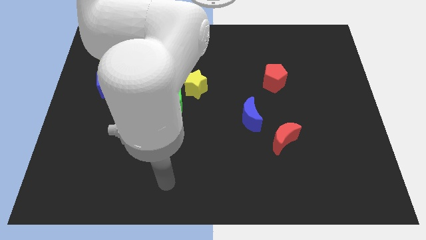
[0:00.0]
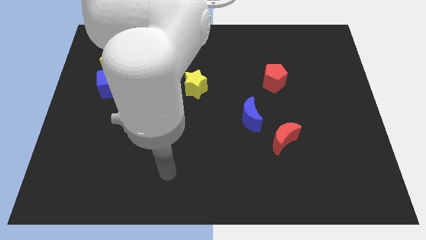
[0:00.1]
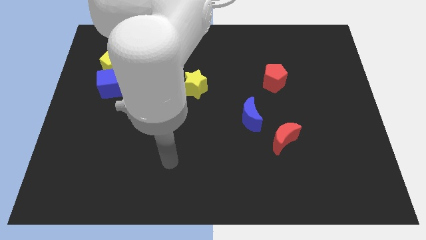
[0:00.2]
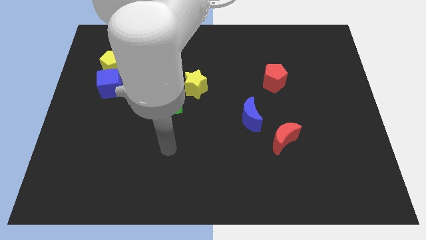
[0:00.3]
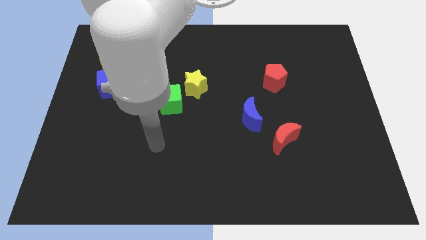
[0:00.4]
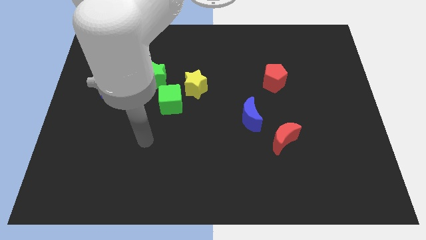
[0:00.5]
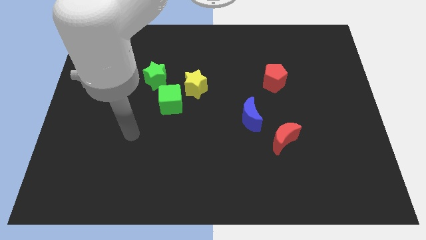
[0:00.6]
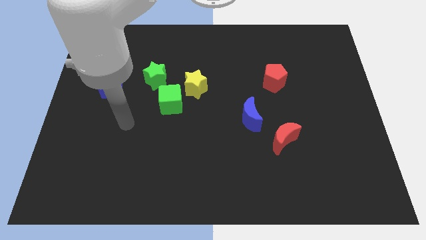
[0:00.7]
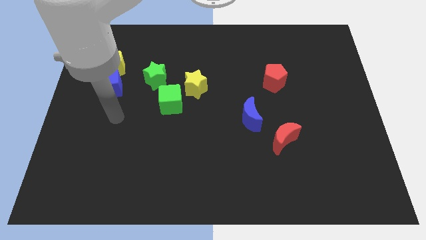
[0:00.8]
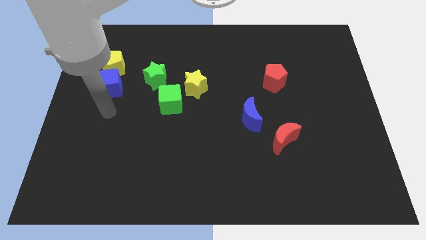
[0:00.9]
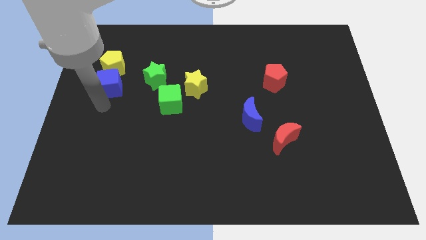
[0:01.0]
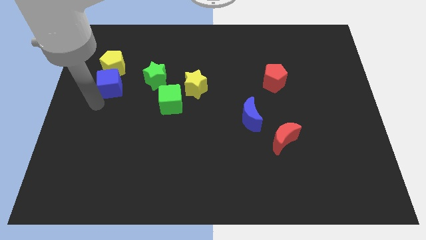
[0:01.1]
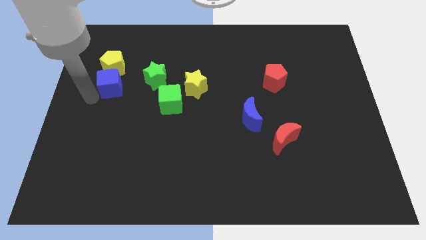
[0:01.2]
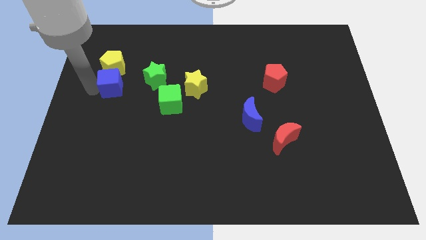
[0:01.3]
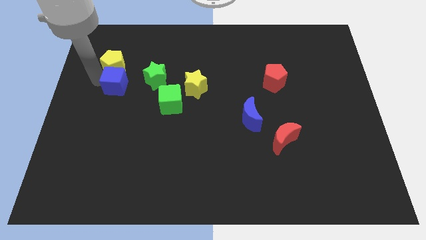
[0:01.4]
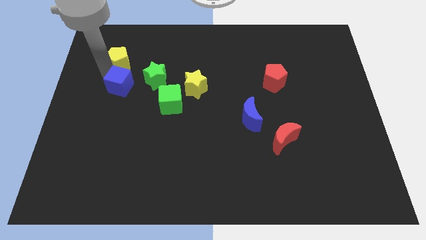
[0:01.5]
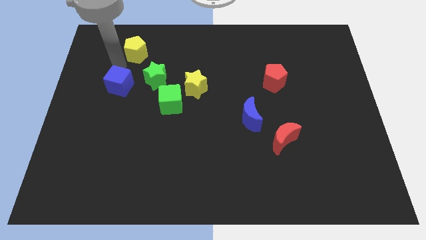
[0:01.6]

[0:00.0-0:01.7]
pull the blue cube apart from the yellow pentagon

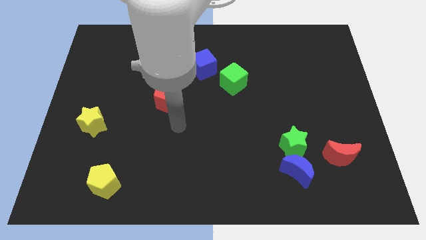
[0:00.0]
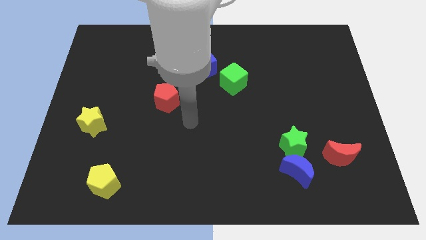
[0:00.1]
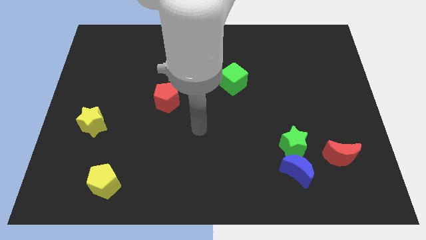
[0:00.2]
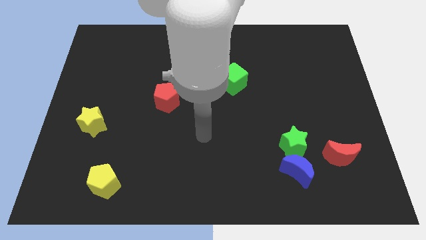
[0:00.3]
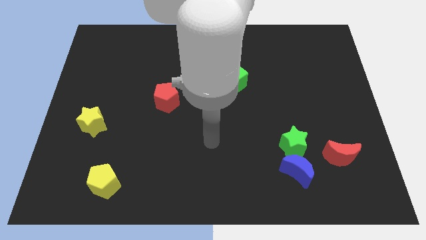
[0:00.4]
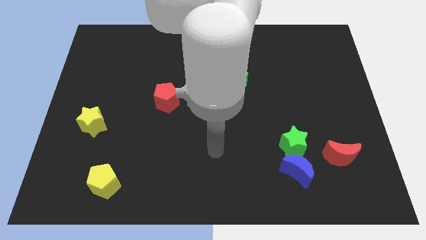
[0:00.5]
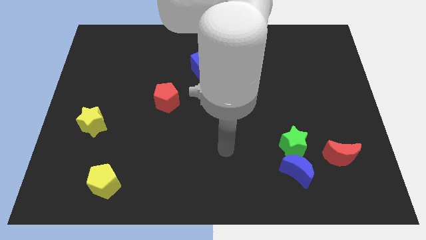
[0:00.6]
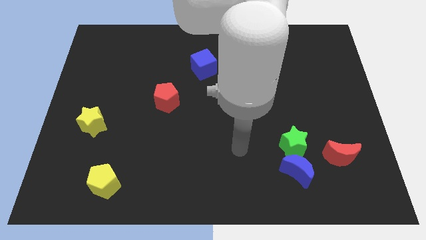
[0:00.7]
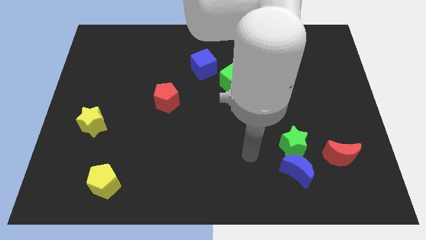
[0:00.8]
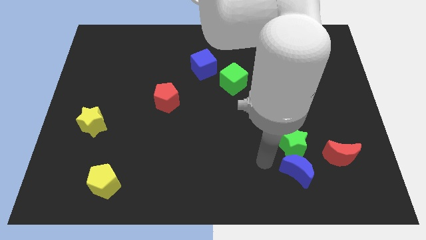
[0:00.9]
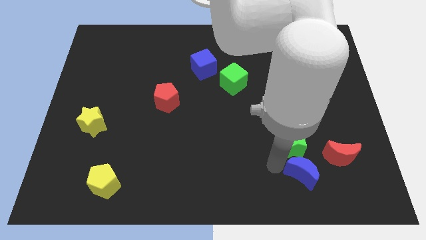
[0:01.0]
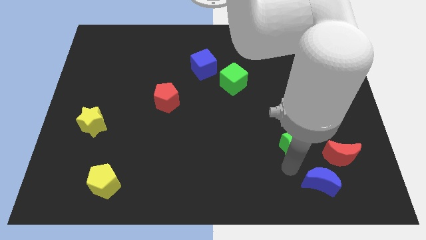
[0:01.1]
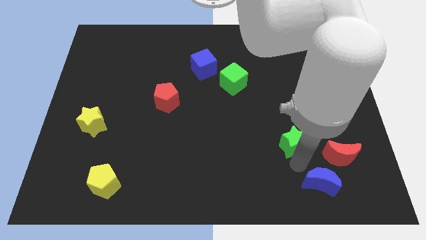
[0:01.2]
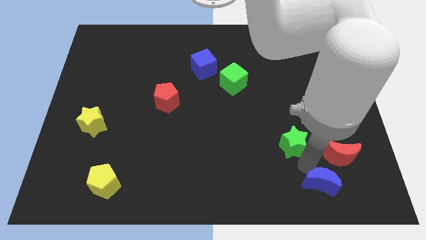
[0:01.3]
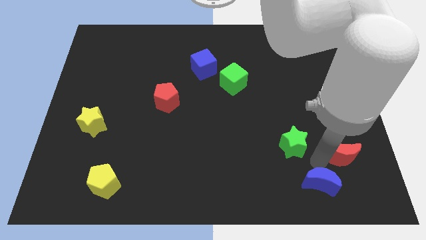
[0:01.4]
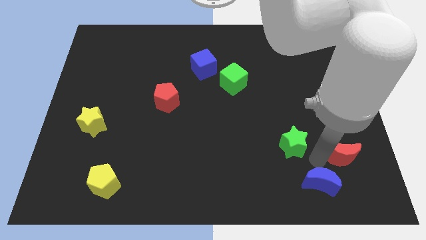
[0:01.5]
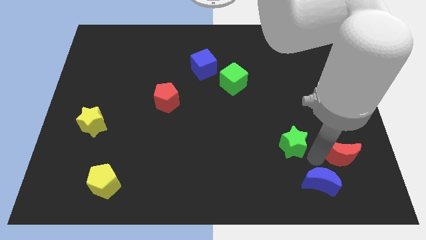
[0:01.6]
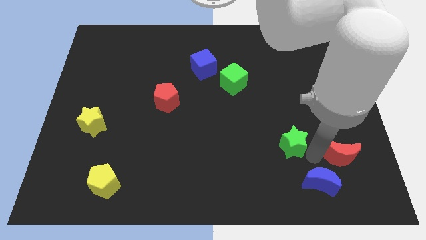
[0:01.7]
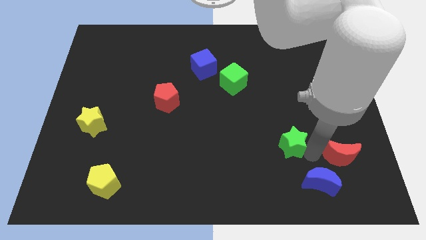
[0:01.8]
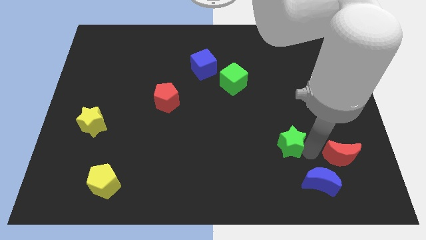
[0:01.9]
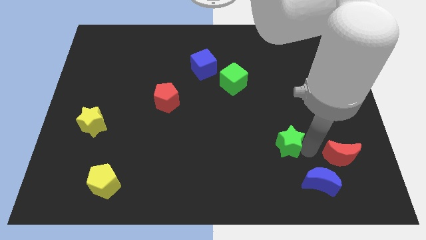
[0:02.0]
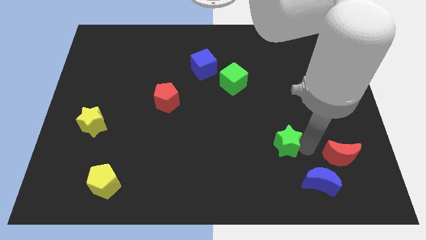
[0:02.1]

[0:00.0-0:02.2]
separate the green star from the blue moon and red moon

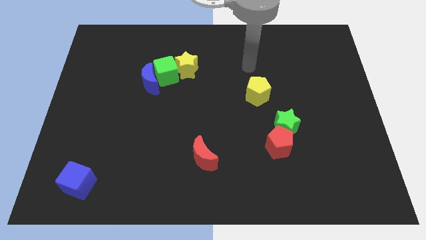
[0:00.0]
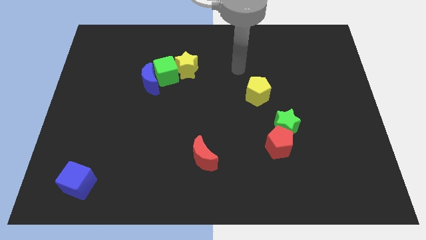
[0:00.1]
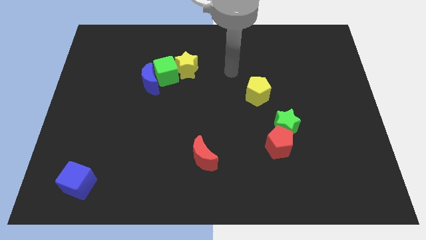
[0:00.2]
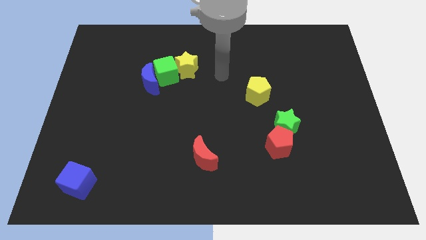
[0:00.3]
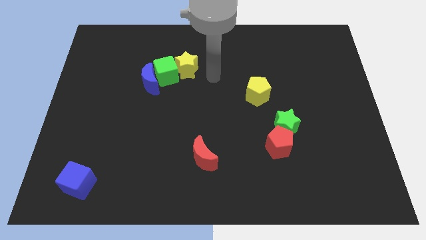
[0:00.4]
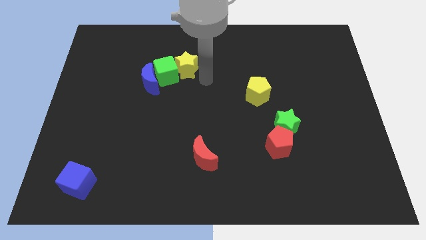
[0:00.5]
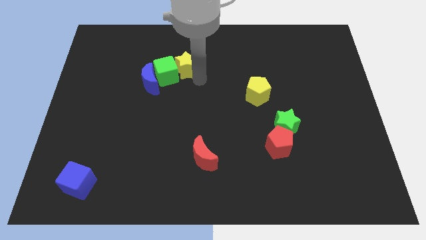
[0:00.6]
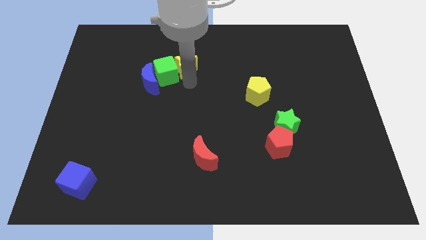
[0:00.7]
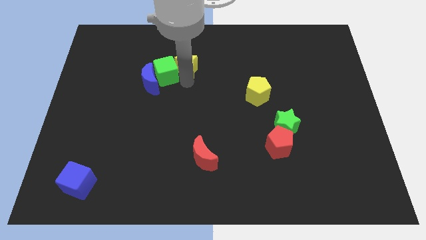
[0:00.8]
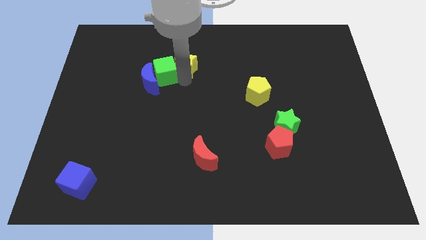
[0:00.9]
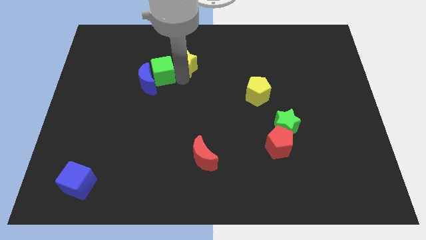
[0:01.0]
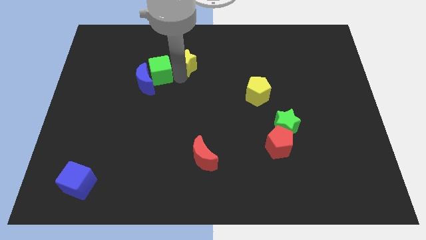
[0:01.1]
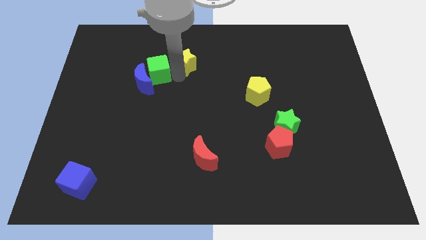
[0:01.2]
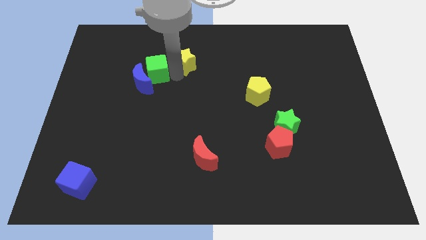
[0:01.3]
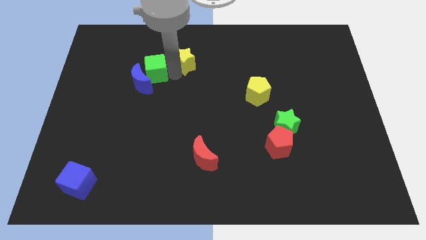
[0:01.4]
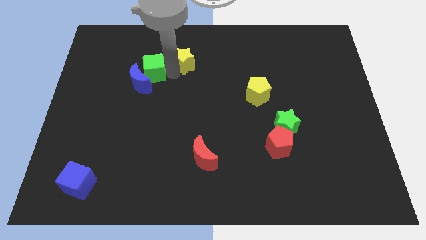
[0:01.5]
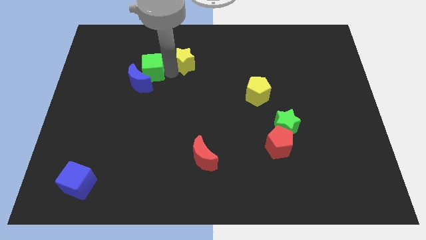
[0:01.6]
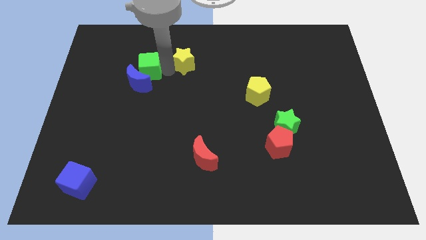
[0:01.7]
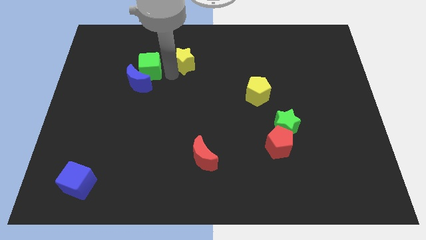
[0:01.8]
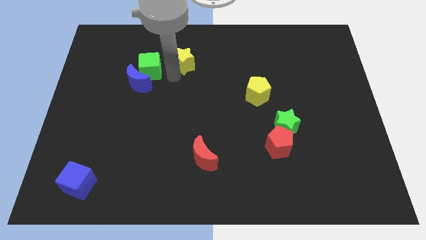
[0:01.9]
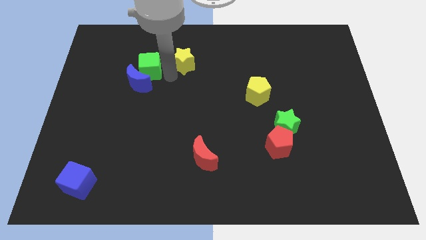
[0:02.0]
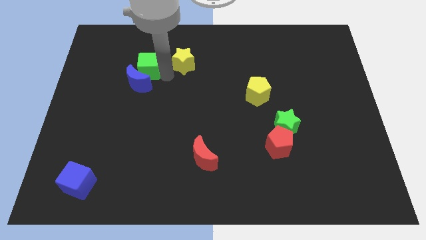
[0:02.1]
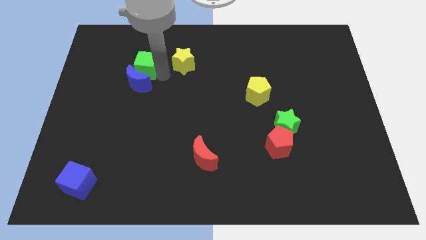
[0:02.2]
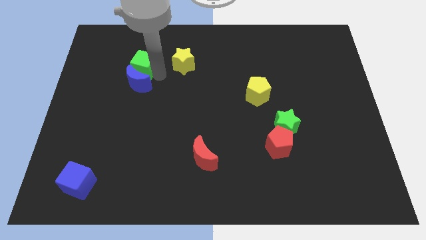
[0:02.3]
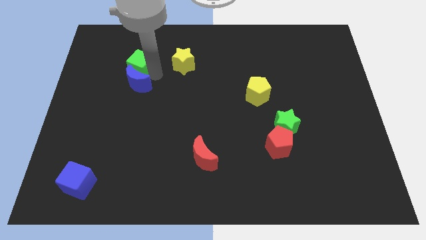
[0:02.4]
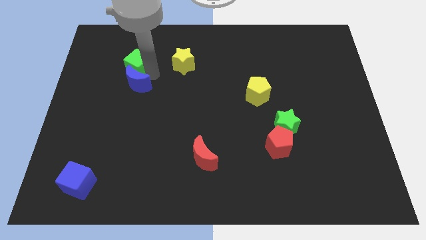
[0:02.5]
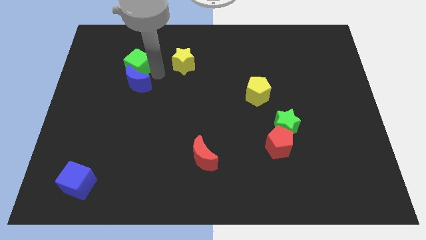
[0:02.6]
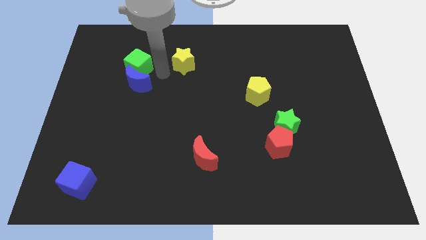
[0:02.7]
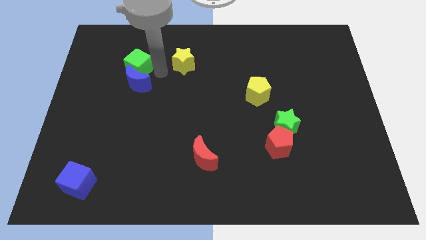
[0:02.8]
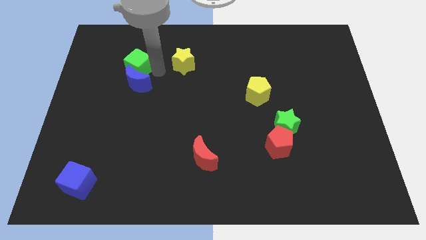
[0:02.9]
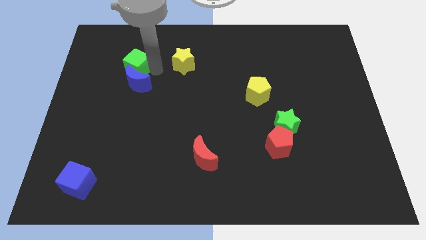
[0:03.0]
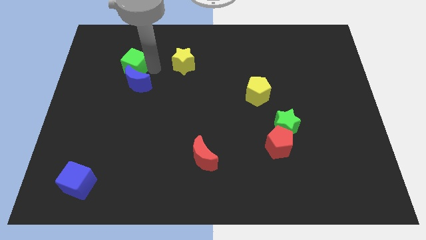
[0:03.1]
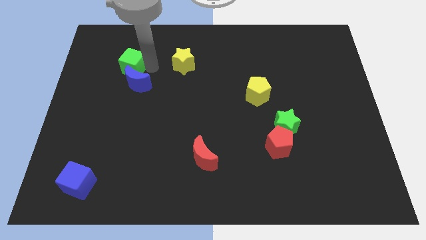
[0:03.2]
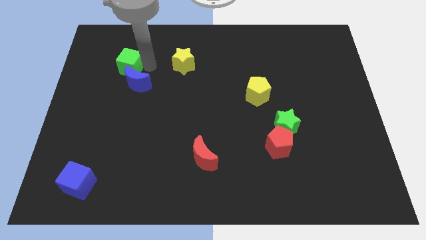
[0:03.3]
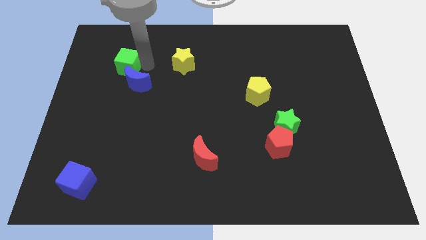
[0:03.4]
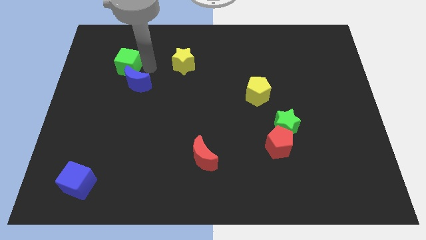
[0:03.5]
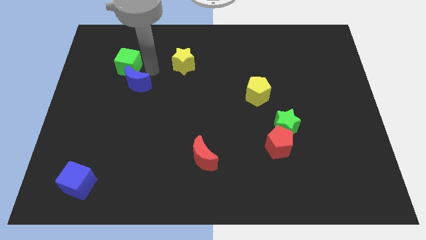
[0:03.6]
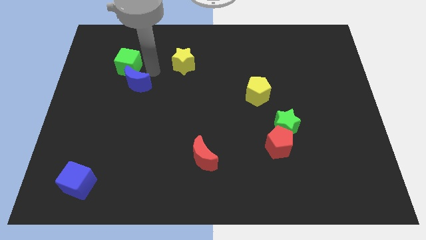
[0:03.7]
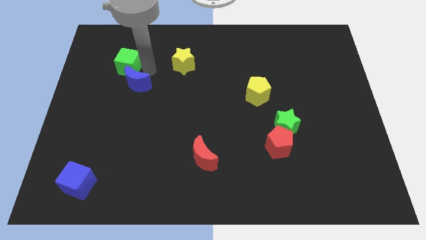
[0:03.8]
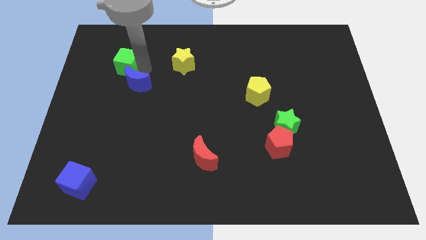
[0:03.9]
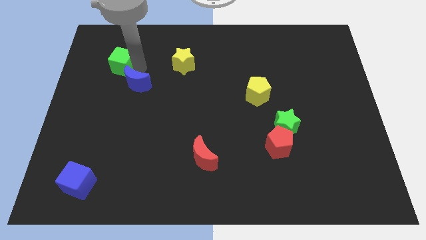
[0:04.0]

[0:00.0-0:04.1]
pull the green cube apart from the blue moon and yellow star

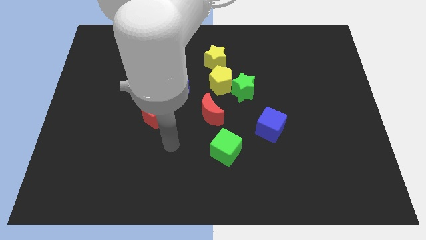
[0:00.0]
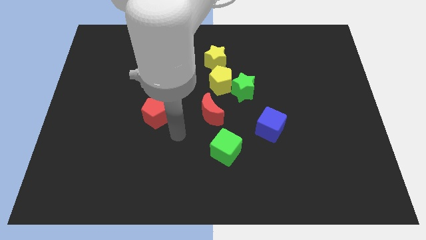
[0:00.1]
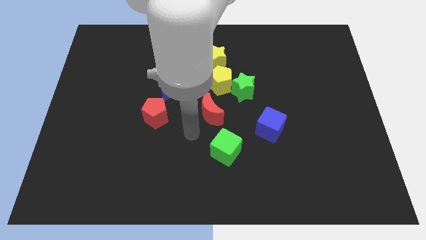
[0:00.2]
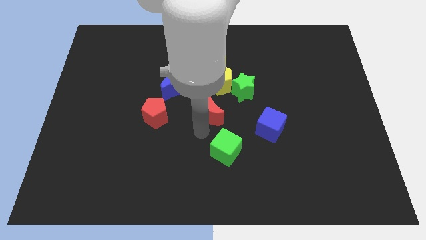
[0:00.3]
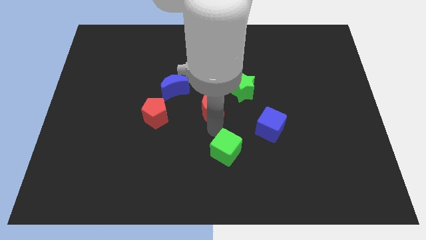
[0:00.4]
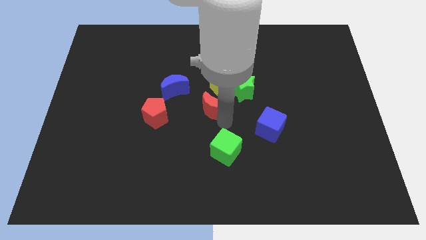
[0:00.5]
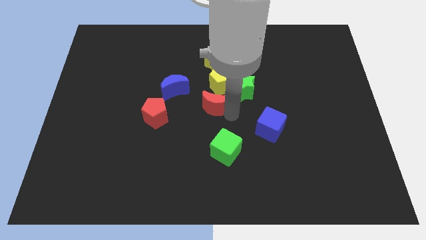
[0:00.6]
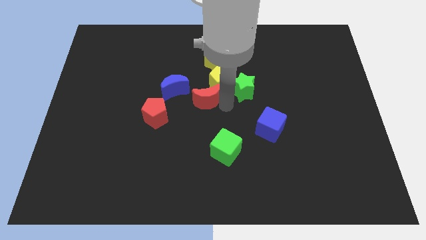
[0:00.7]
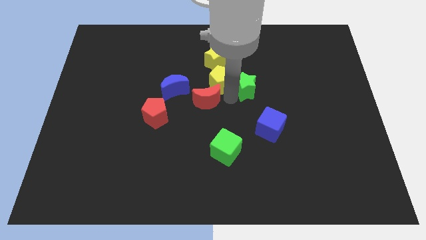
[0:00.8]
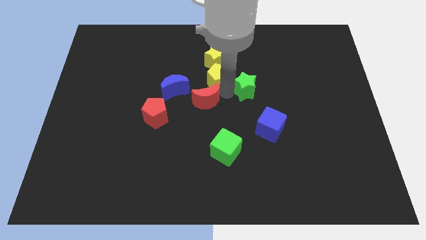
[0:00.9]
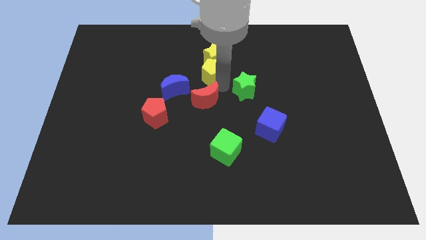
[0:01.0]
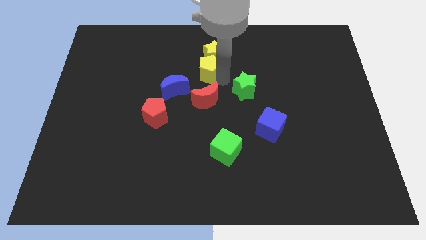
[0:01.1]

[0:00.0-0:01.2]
separate the green star from the yellow pentagon
